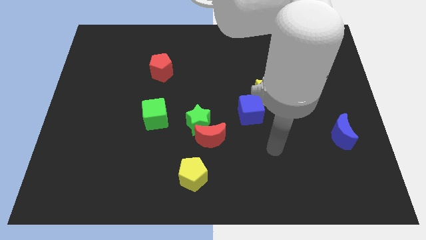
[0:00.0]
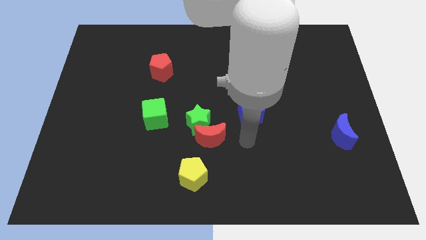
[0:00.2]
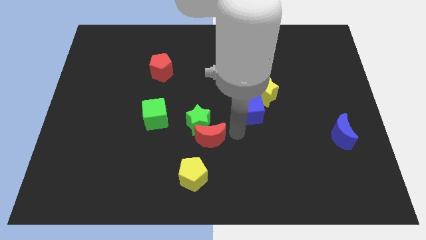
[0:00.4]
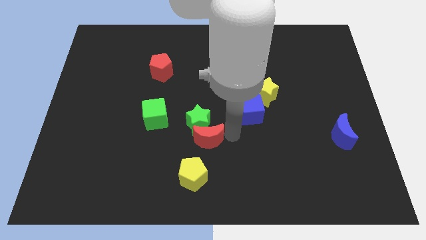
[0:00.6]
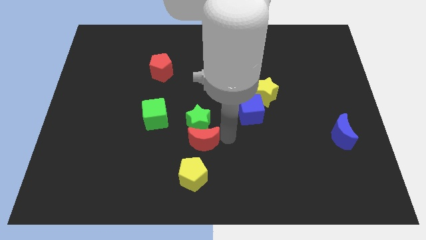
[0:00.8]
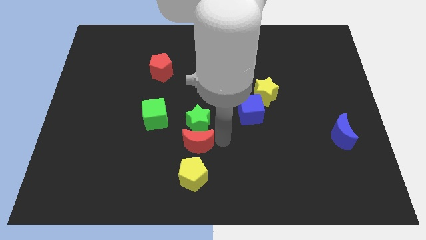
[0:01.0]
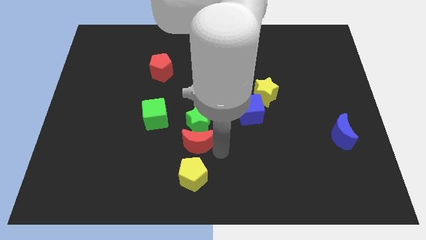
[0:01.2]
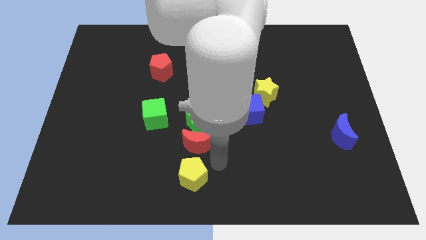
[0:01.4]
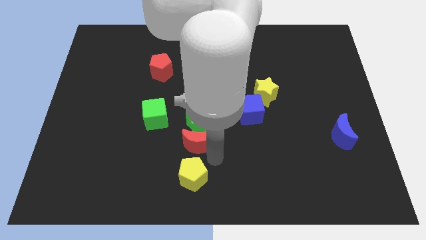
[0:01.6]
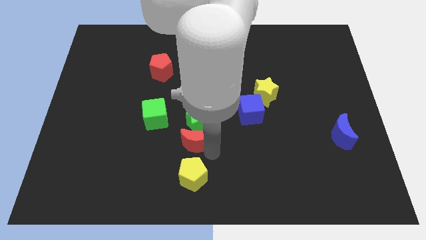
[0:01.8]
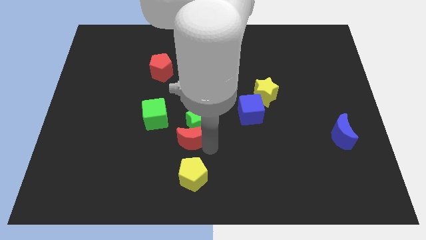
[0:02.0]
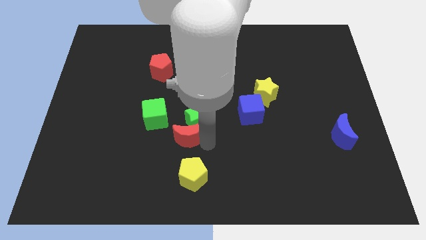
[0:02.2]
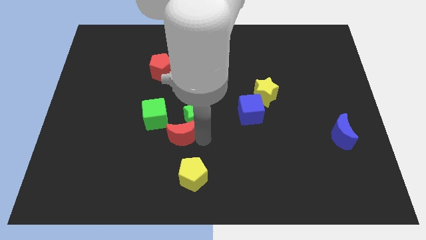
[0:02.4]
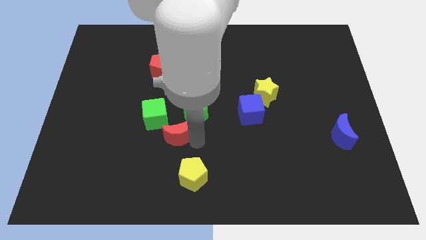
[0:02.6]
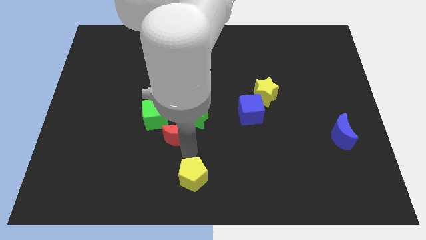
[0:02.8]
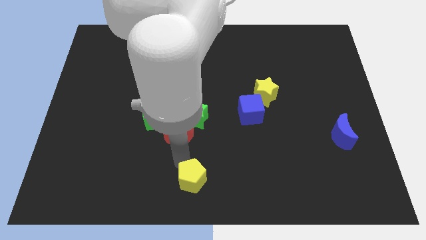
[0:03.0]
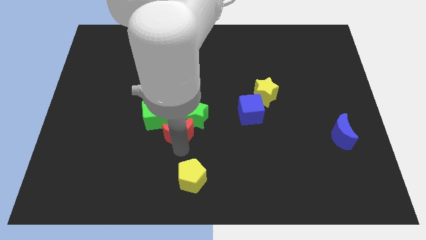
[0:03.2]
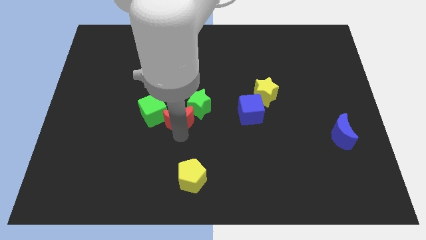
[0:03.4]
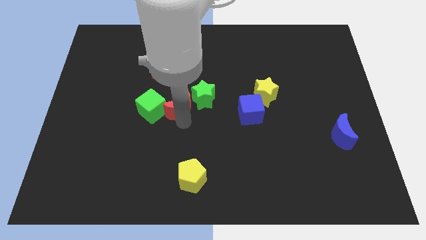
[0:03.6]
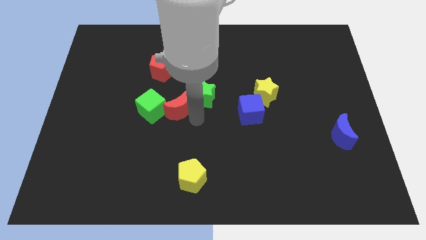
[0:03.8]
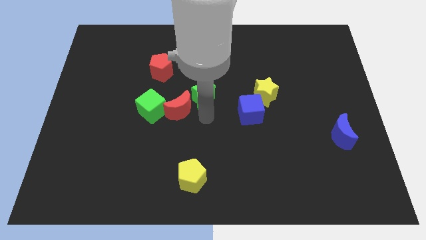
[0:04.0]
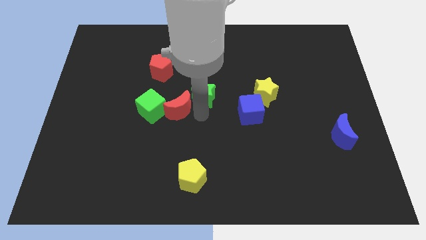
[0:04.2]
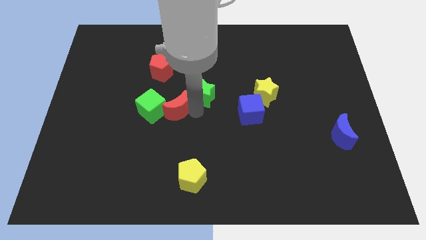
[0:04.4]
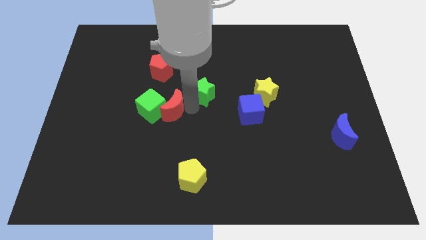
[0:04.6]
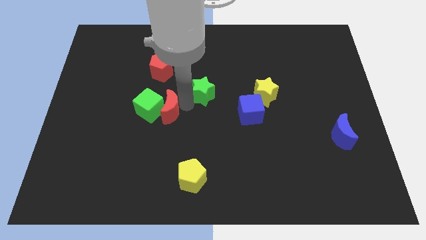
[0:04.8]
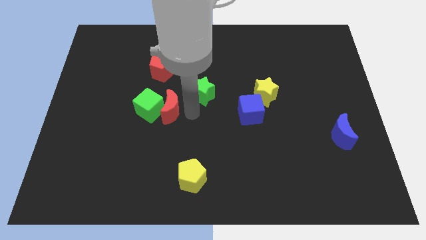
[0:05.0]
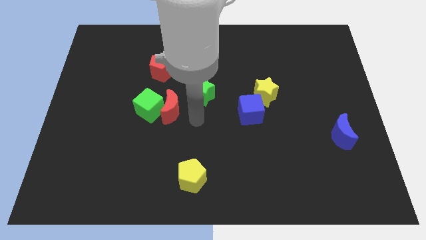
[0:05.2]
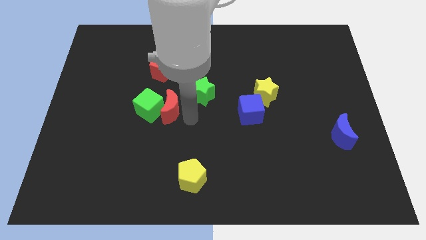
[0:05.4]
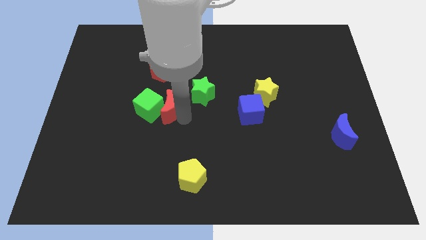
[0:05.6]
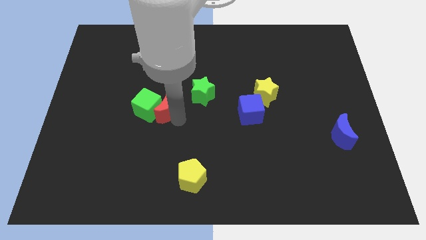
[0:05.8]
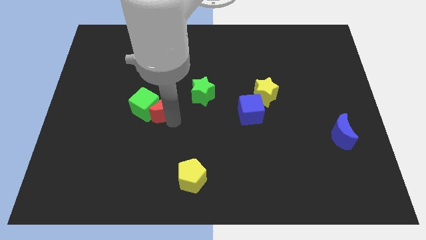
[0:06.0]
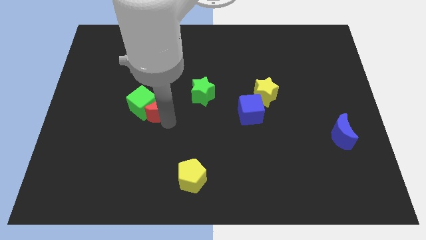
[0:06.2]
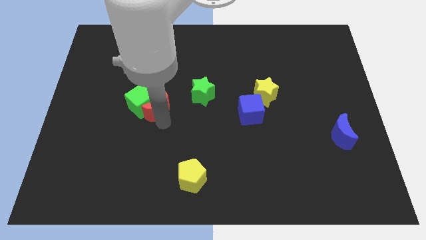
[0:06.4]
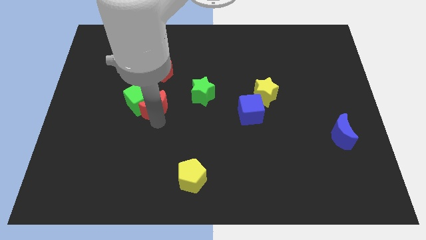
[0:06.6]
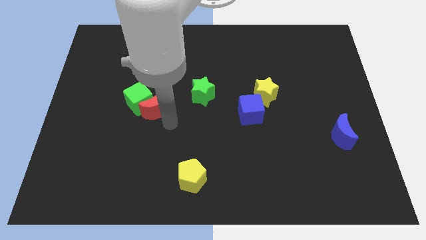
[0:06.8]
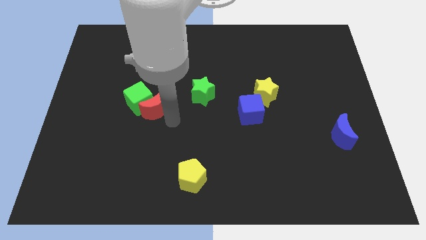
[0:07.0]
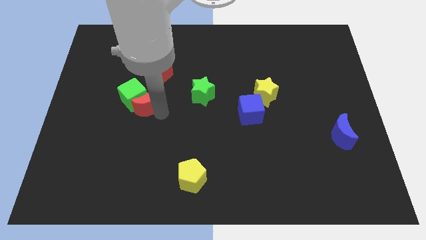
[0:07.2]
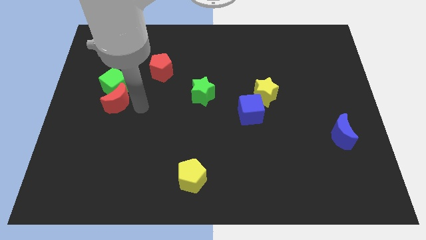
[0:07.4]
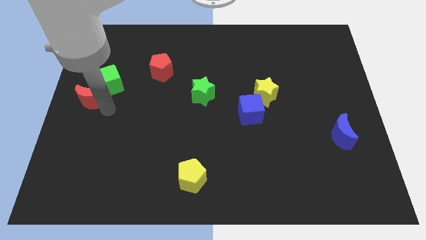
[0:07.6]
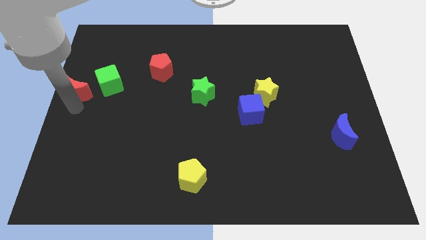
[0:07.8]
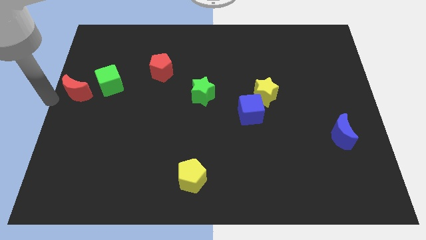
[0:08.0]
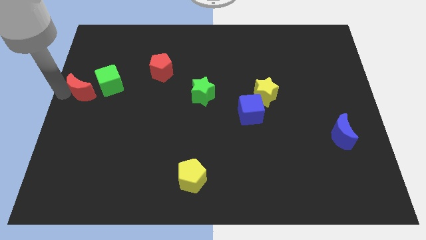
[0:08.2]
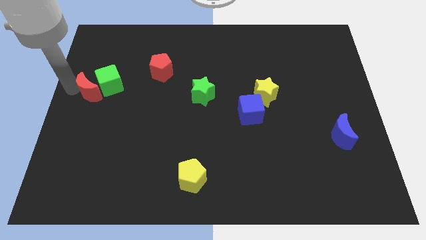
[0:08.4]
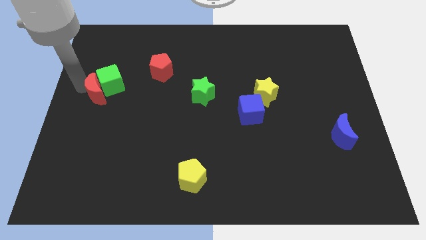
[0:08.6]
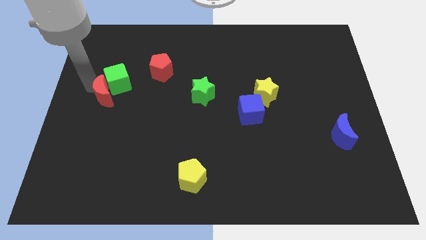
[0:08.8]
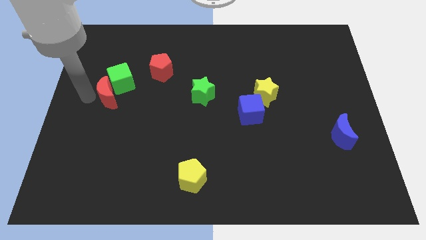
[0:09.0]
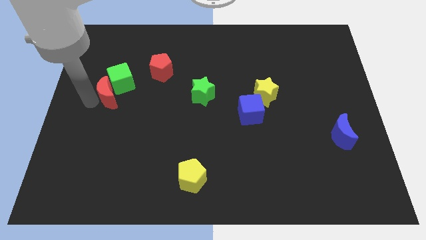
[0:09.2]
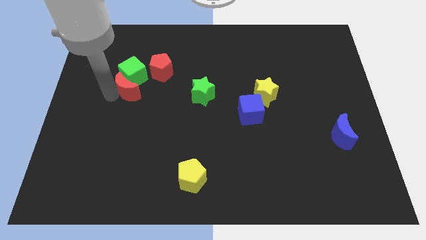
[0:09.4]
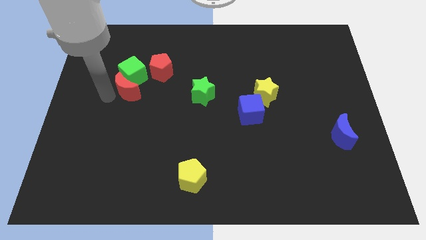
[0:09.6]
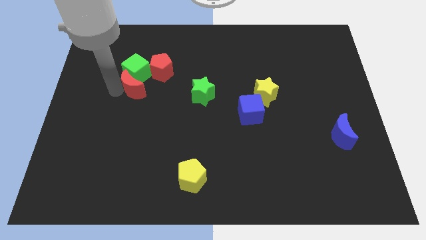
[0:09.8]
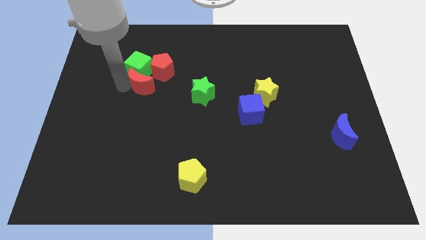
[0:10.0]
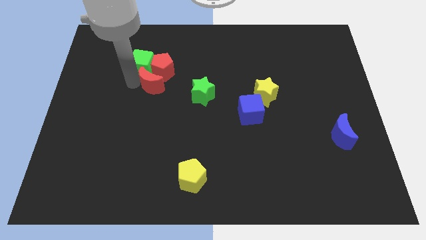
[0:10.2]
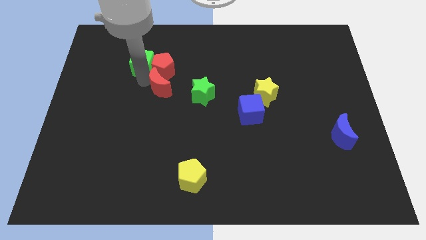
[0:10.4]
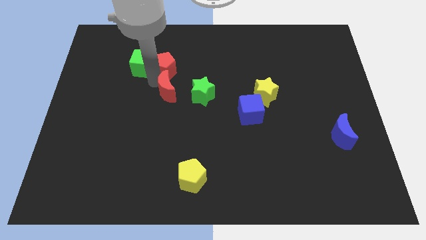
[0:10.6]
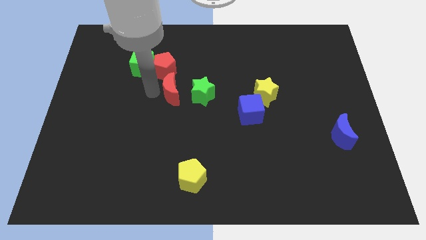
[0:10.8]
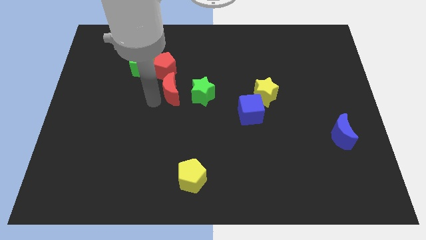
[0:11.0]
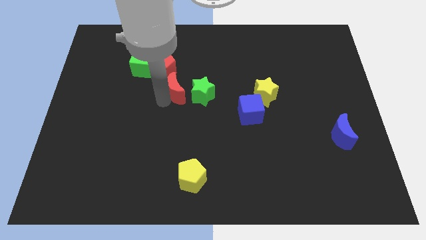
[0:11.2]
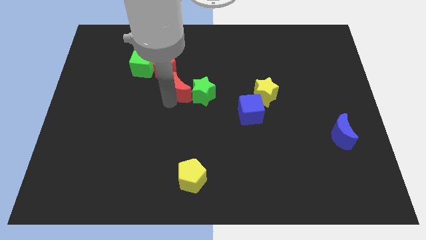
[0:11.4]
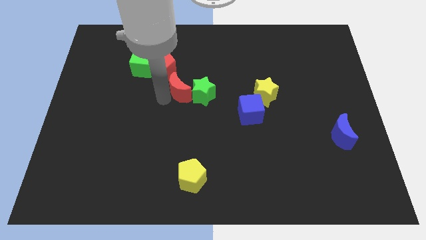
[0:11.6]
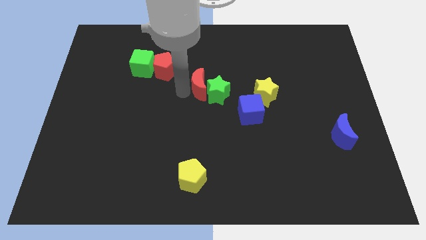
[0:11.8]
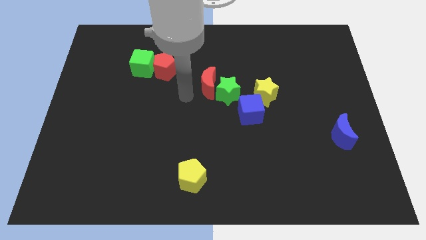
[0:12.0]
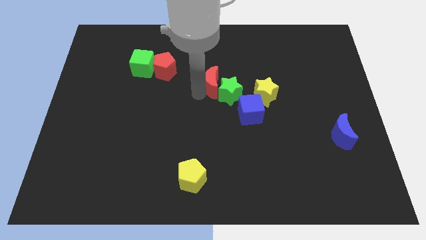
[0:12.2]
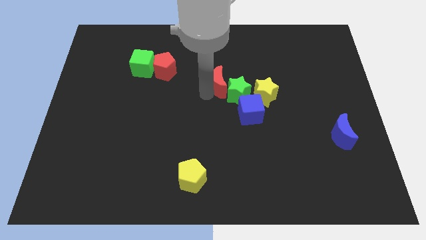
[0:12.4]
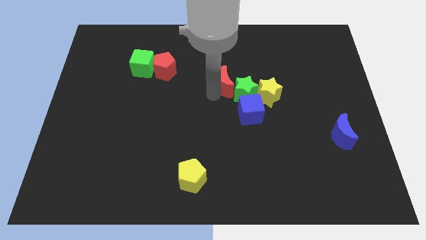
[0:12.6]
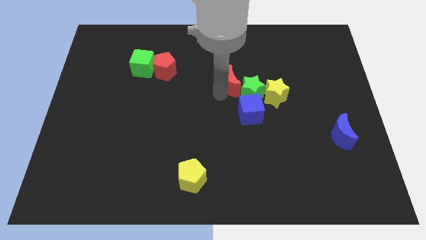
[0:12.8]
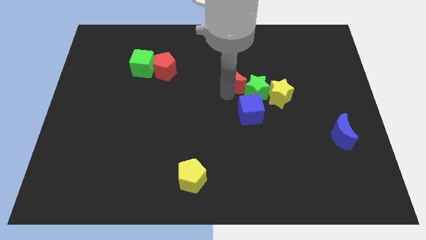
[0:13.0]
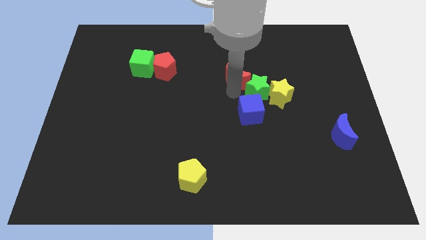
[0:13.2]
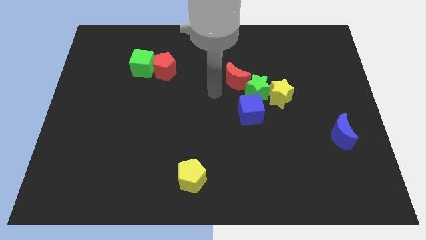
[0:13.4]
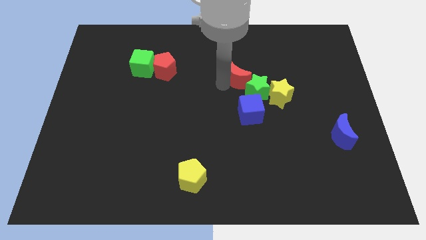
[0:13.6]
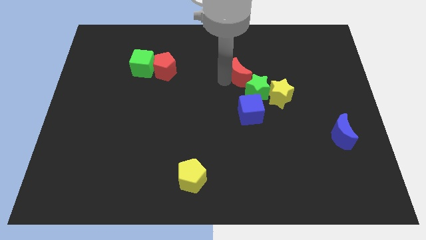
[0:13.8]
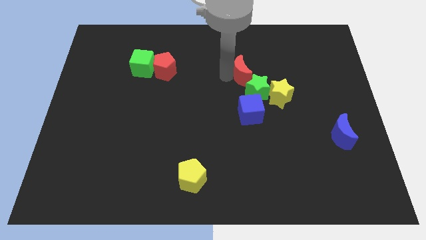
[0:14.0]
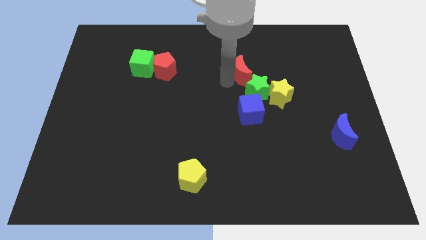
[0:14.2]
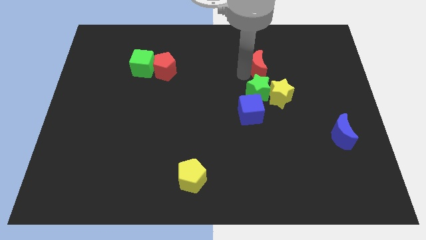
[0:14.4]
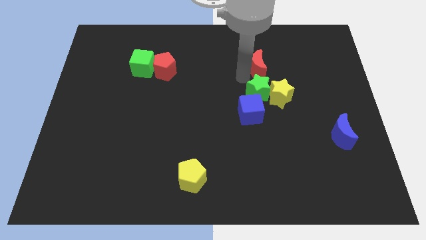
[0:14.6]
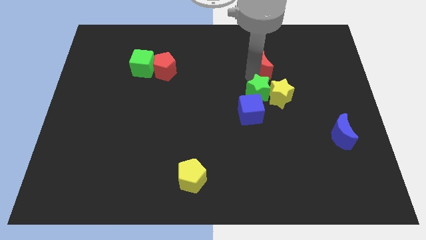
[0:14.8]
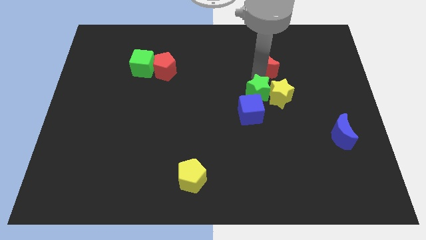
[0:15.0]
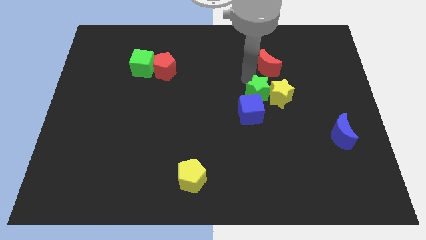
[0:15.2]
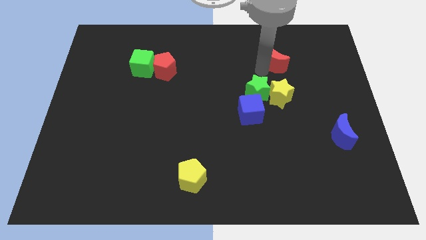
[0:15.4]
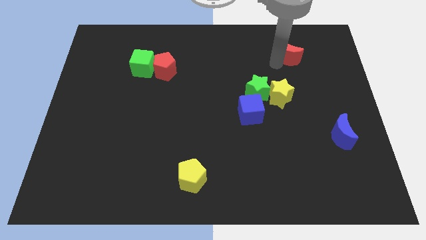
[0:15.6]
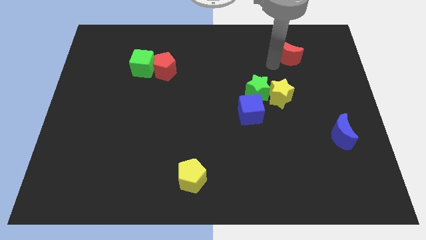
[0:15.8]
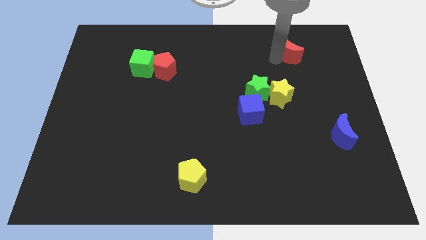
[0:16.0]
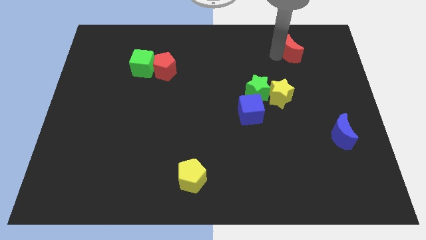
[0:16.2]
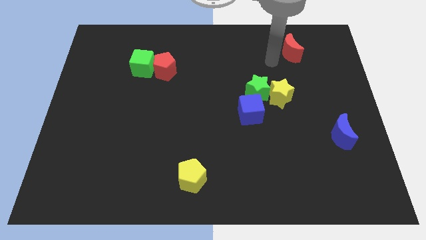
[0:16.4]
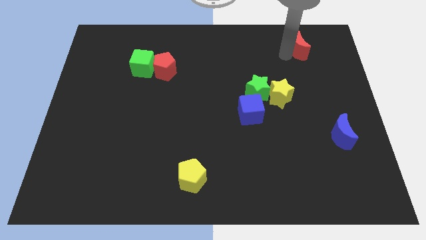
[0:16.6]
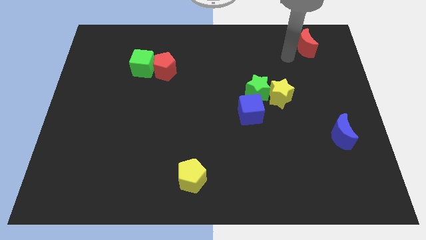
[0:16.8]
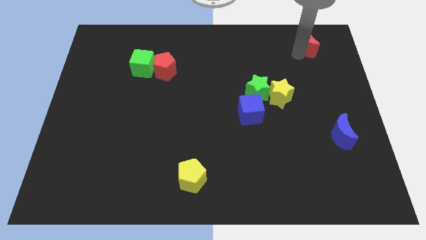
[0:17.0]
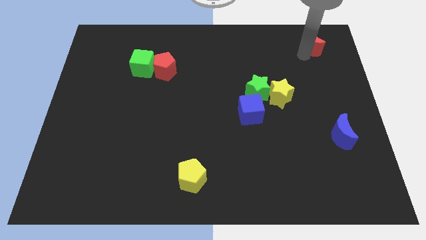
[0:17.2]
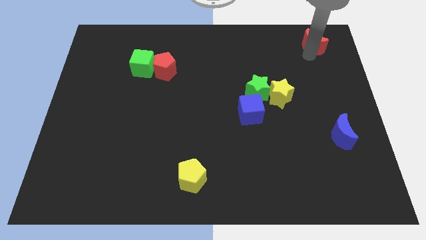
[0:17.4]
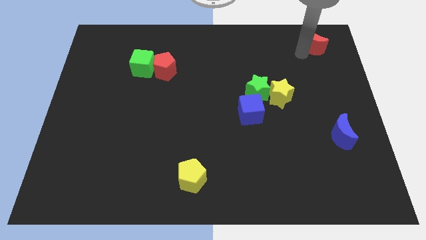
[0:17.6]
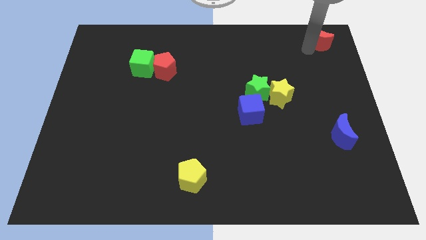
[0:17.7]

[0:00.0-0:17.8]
put the red moon to the top right of the board
